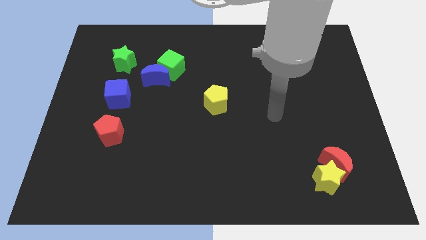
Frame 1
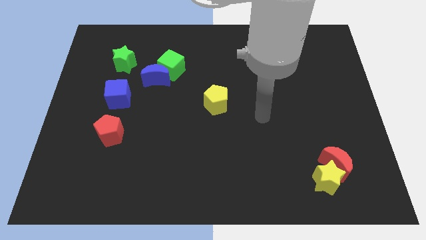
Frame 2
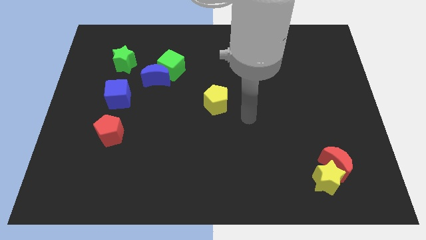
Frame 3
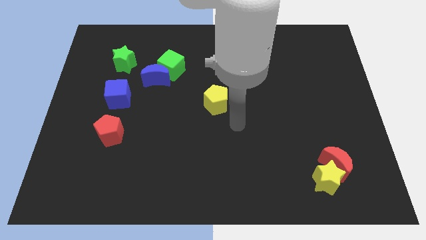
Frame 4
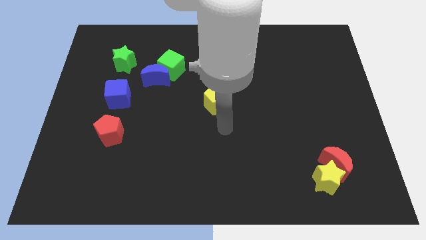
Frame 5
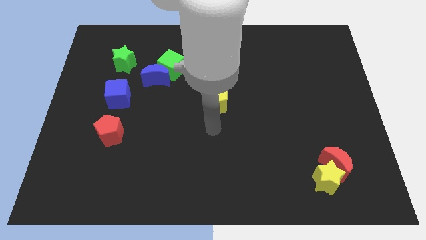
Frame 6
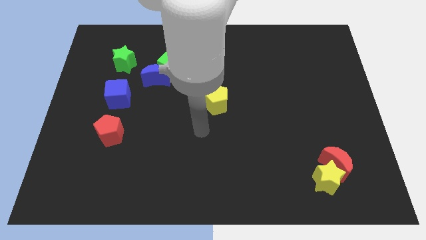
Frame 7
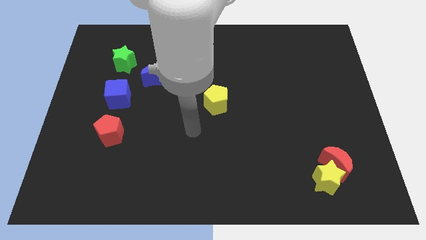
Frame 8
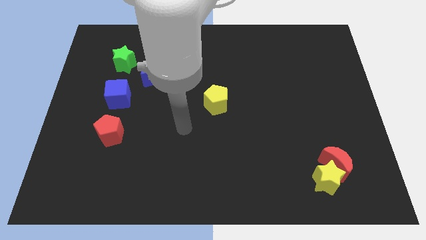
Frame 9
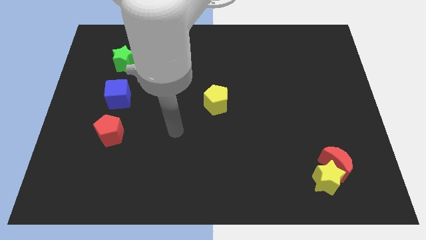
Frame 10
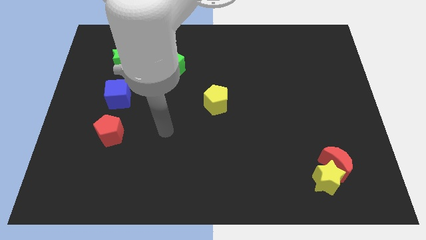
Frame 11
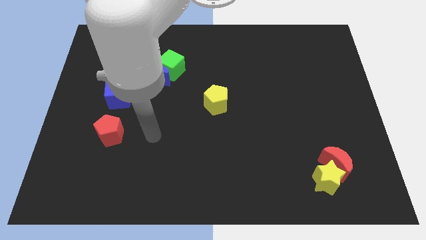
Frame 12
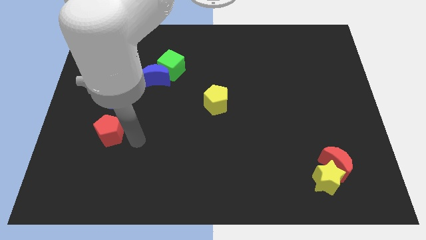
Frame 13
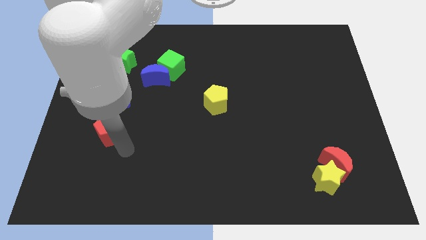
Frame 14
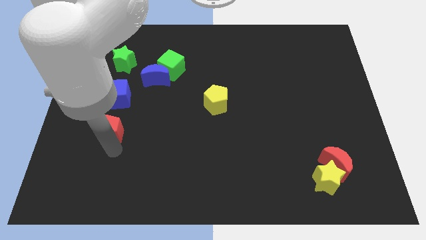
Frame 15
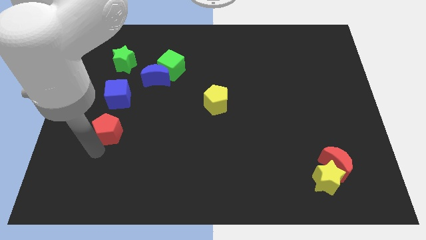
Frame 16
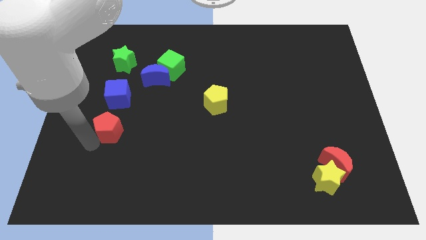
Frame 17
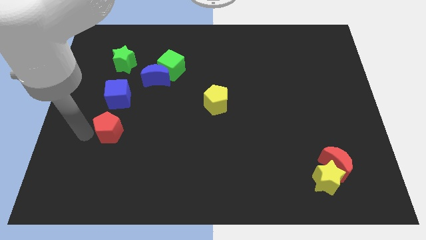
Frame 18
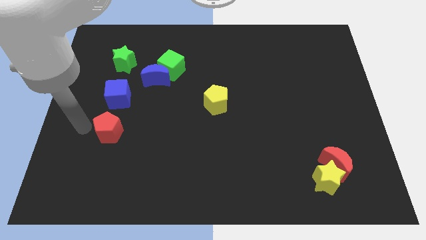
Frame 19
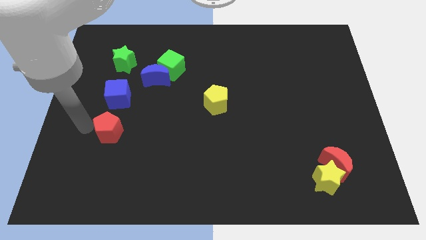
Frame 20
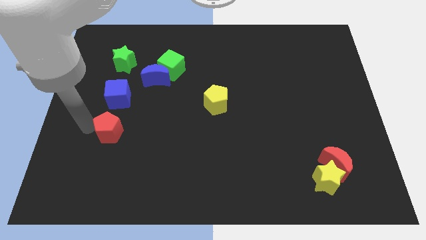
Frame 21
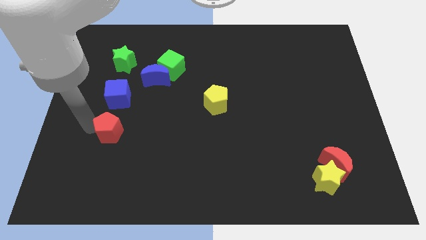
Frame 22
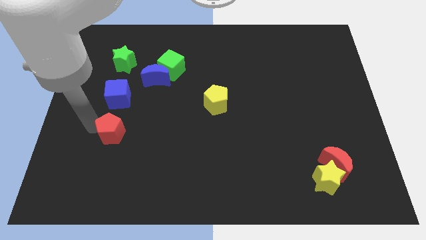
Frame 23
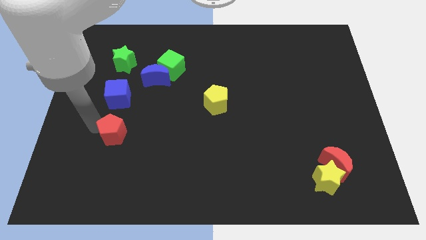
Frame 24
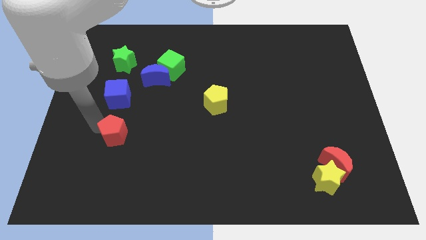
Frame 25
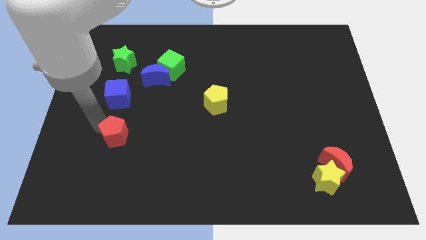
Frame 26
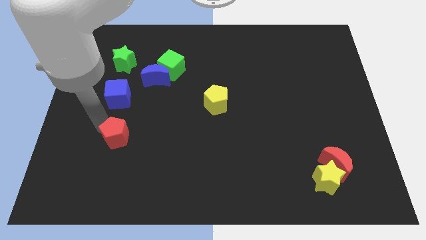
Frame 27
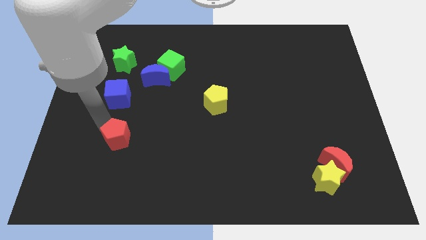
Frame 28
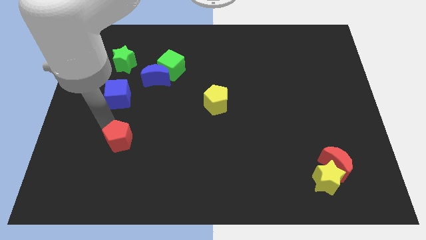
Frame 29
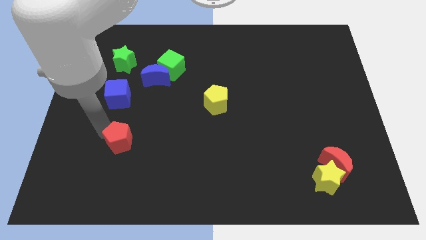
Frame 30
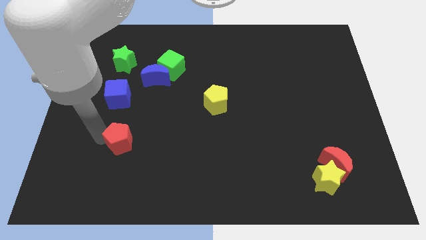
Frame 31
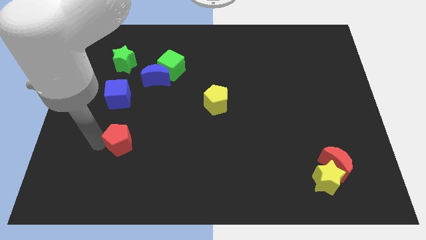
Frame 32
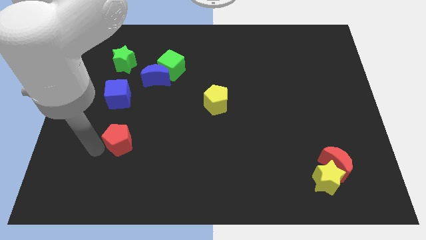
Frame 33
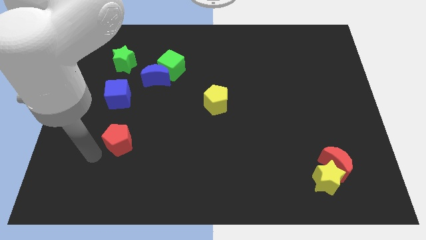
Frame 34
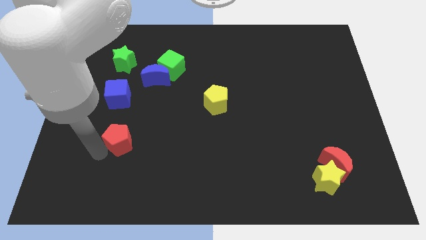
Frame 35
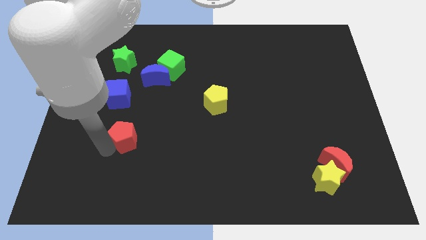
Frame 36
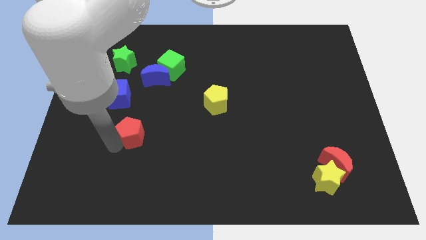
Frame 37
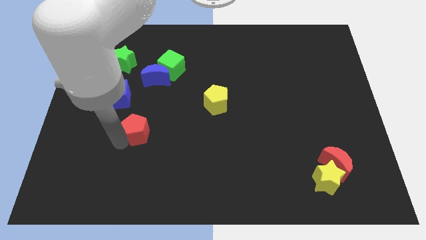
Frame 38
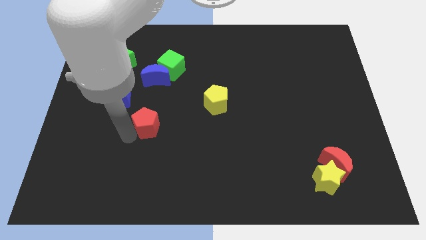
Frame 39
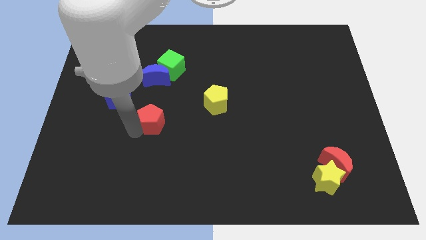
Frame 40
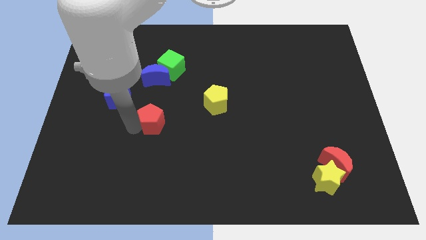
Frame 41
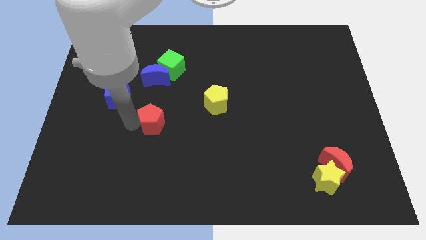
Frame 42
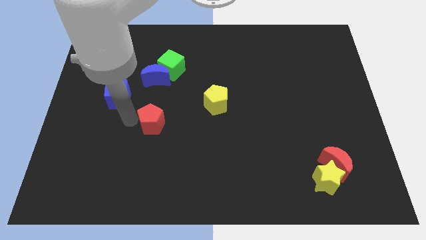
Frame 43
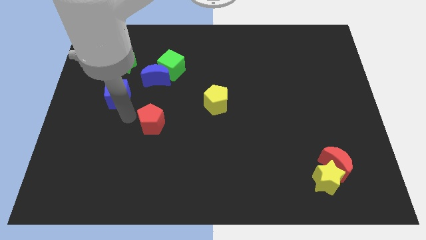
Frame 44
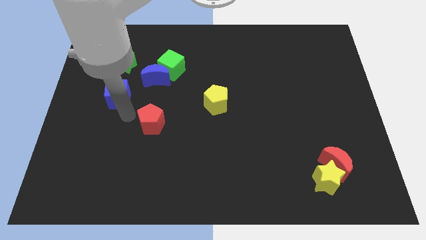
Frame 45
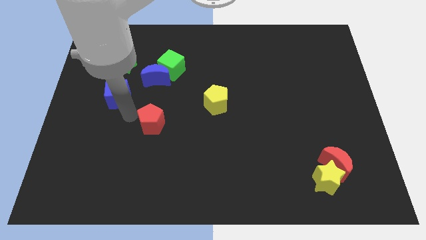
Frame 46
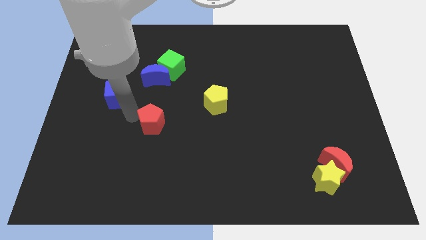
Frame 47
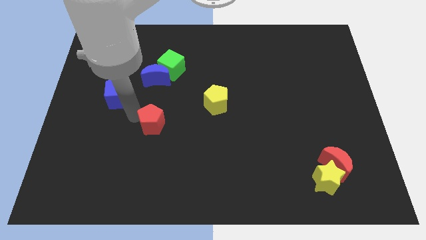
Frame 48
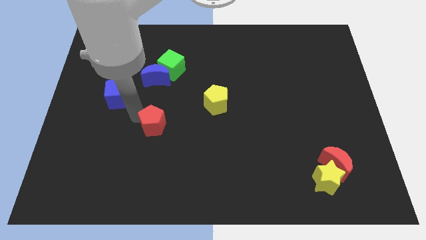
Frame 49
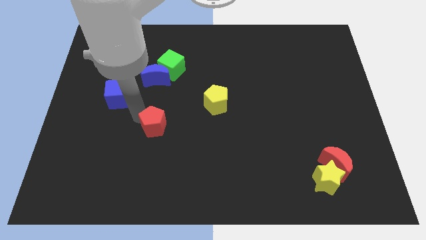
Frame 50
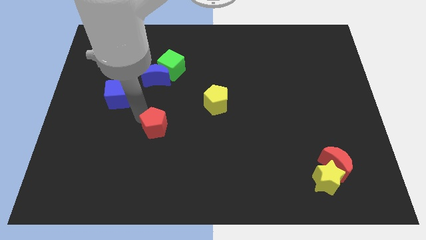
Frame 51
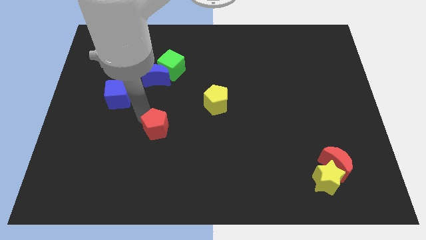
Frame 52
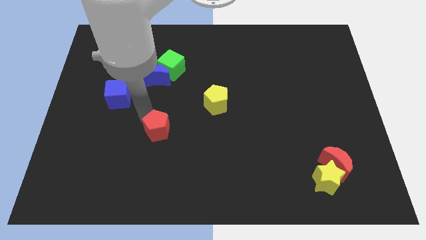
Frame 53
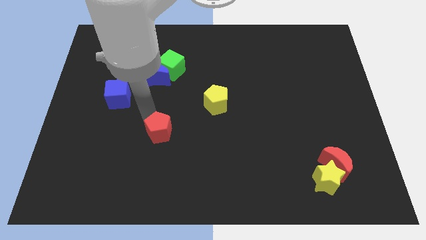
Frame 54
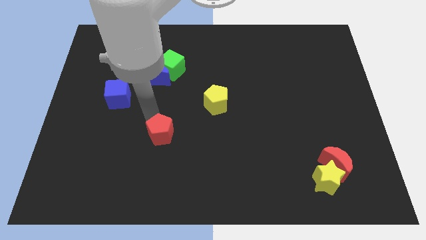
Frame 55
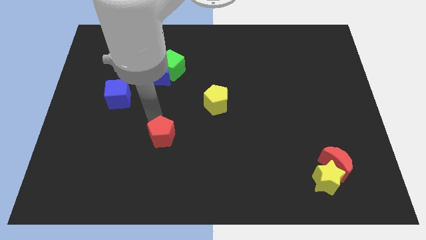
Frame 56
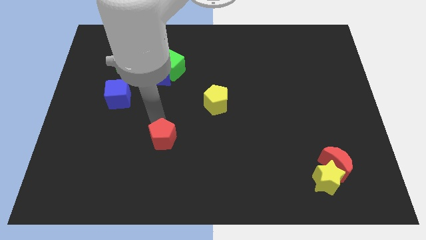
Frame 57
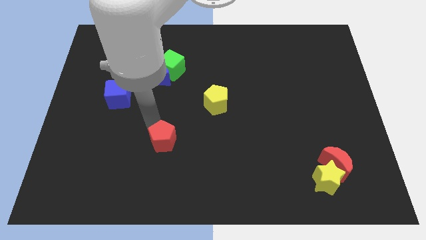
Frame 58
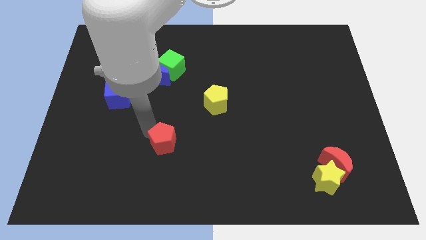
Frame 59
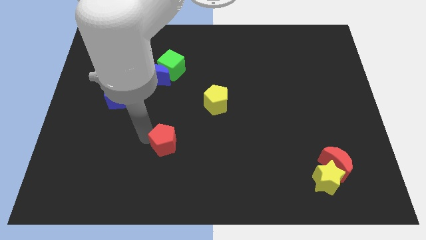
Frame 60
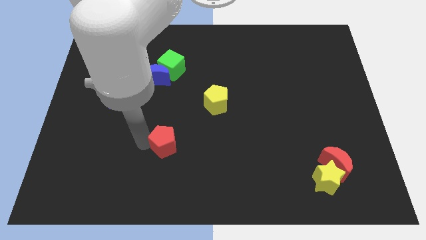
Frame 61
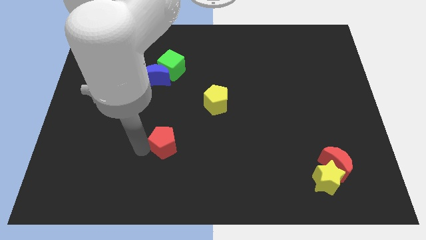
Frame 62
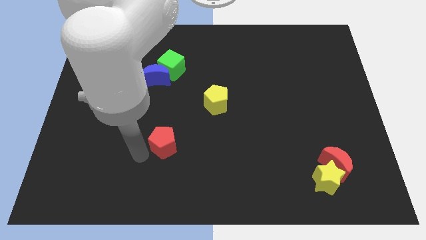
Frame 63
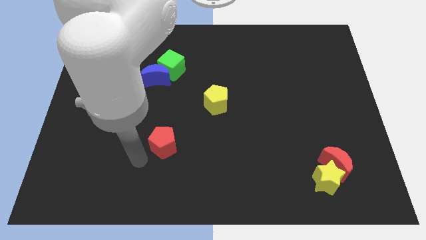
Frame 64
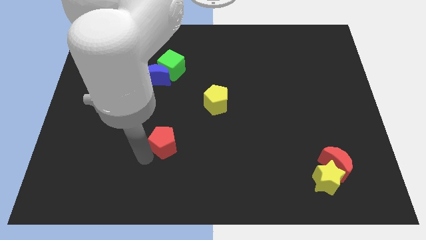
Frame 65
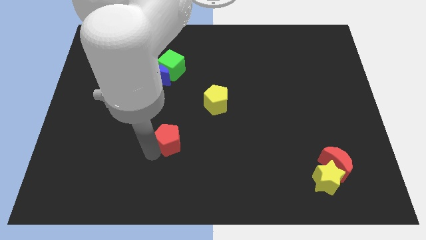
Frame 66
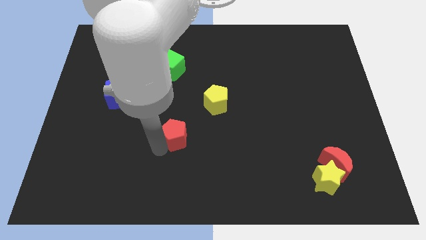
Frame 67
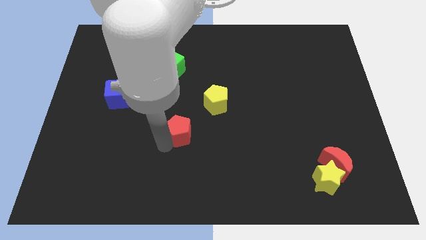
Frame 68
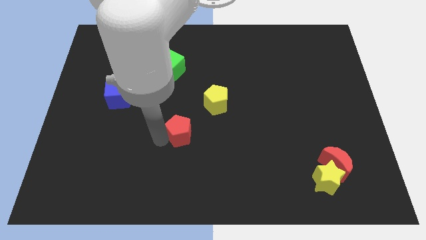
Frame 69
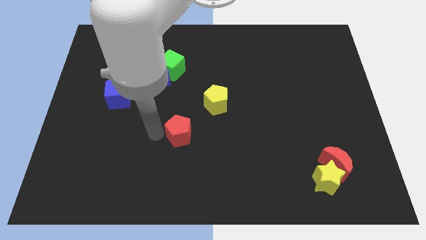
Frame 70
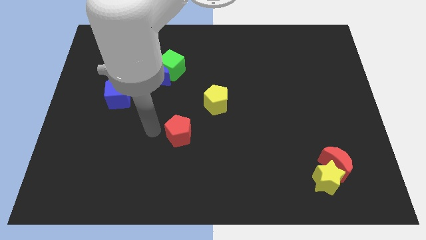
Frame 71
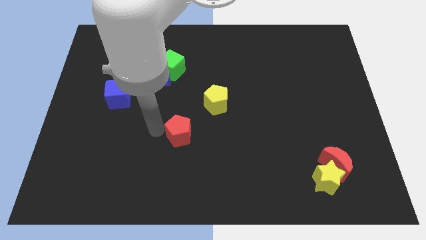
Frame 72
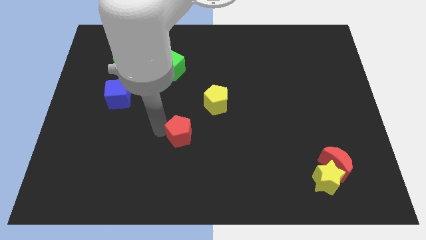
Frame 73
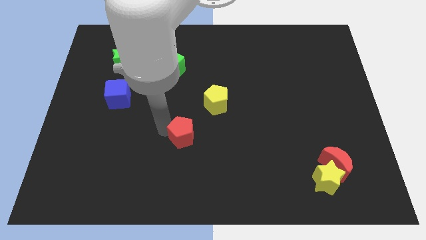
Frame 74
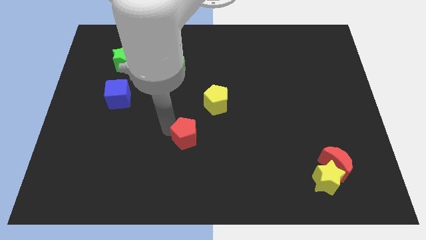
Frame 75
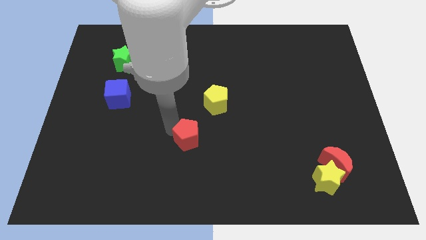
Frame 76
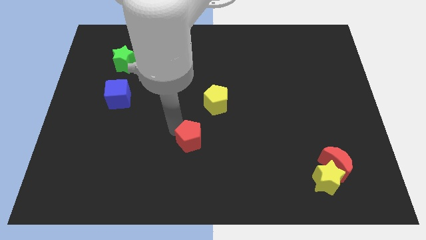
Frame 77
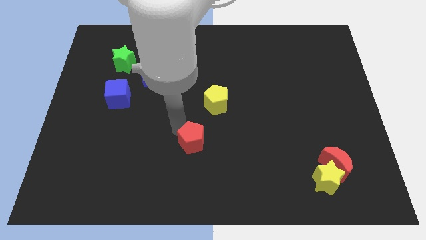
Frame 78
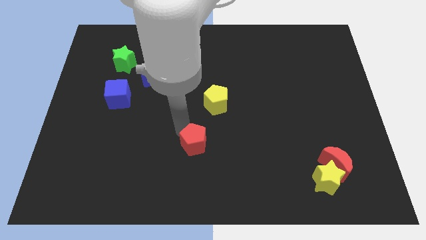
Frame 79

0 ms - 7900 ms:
move the red pentagon to the bottom of the yellow pentagon
